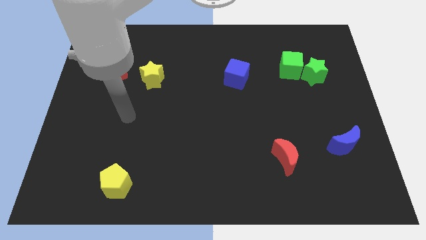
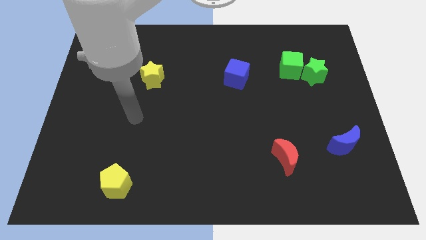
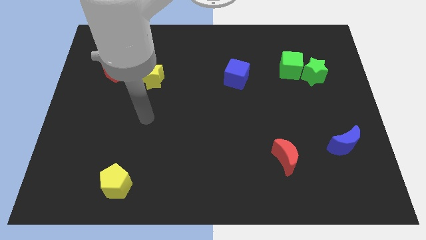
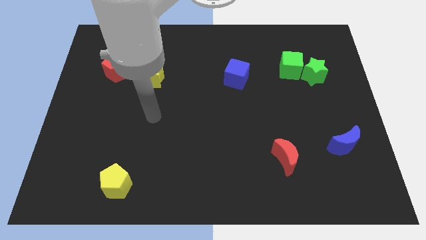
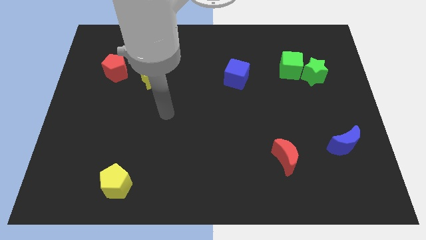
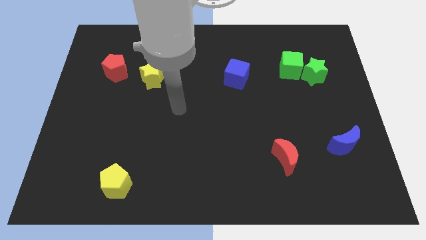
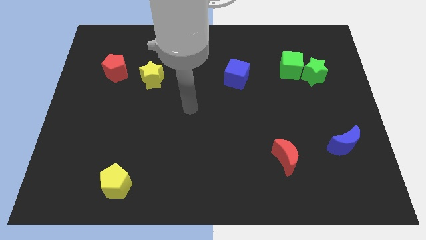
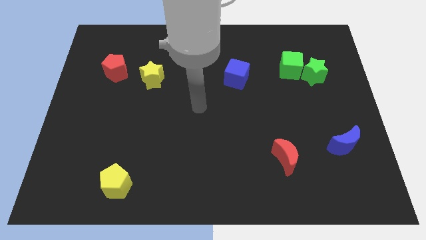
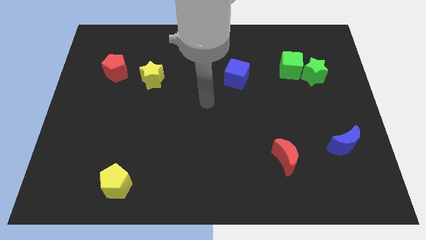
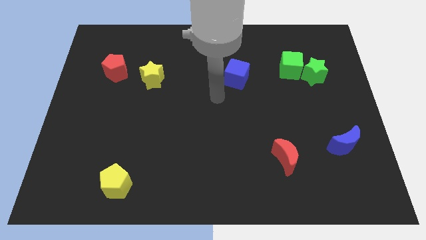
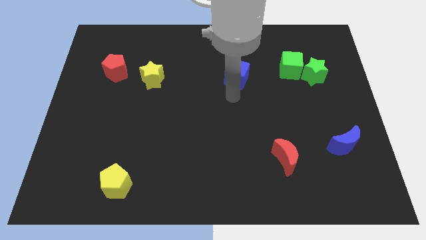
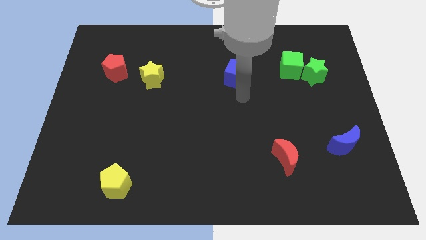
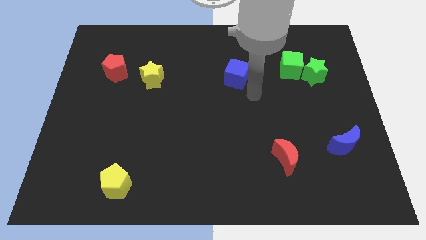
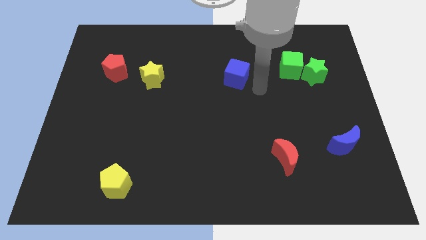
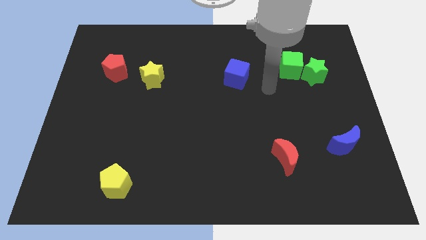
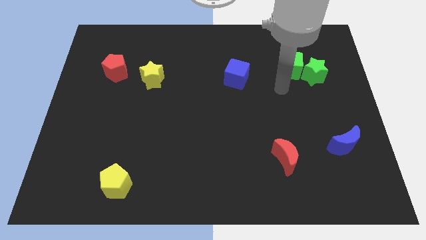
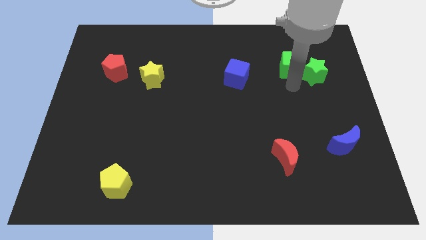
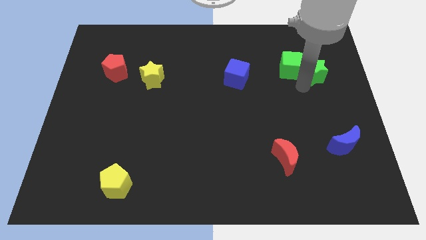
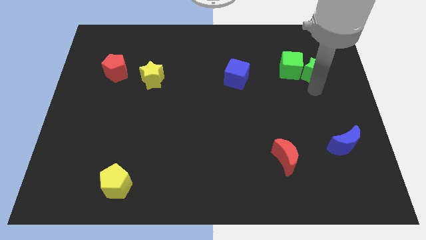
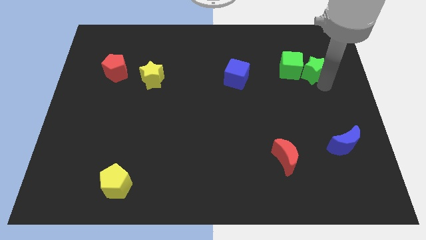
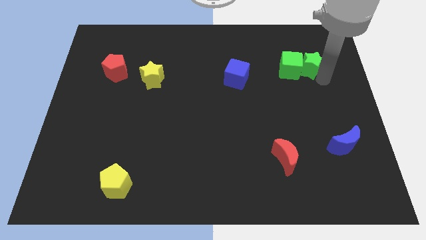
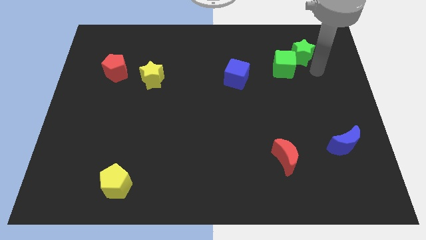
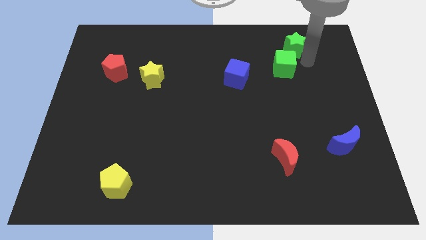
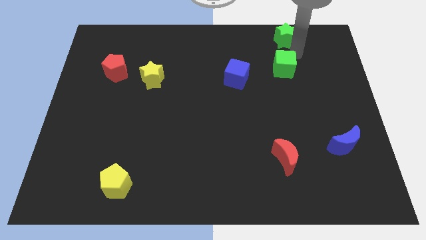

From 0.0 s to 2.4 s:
move the green cube away from the green star

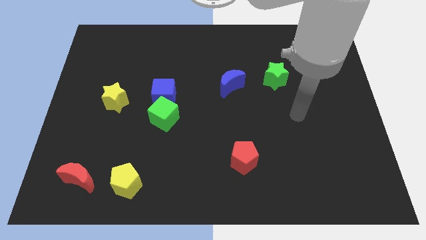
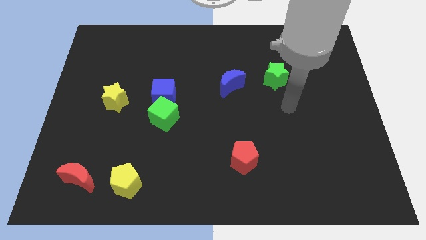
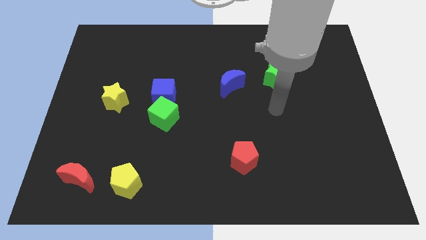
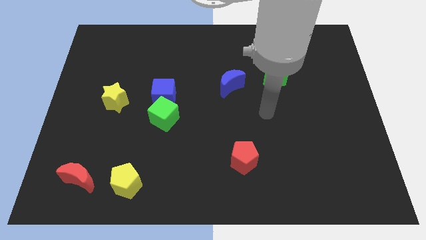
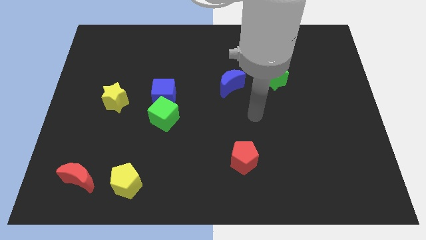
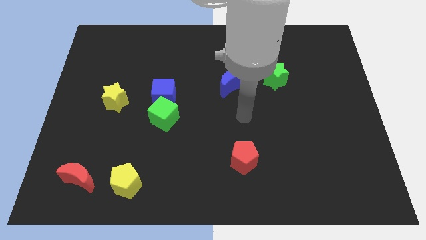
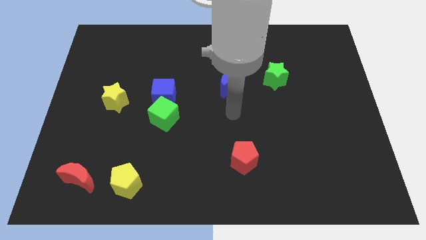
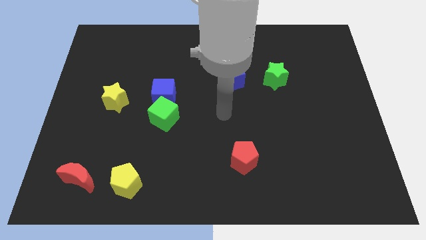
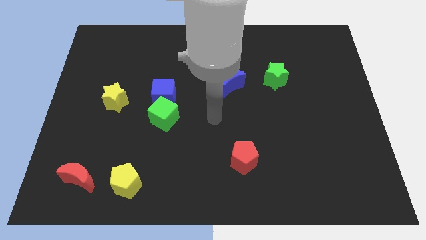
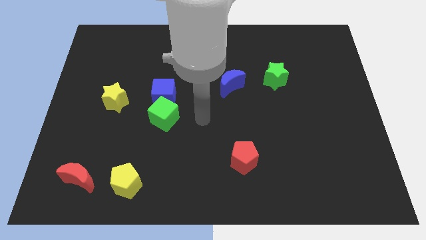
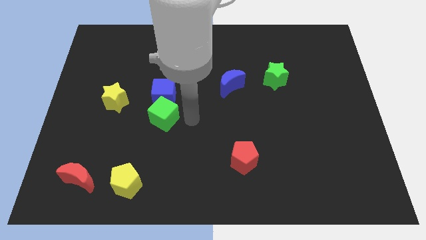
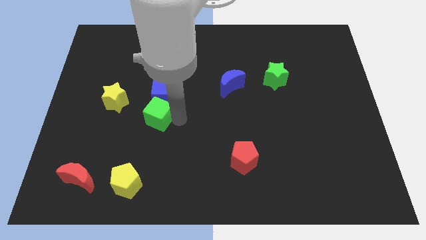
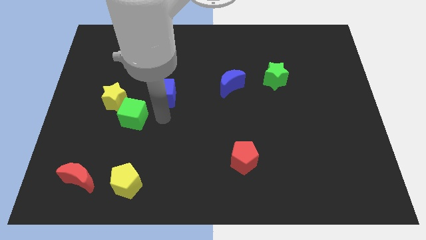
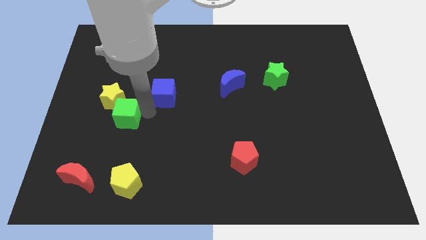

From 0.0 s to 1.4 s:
move the blue cube away from the green cube

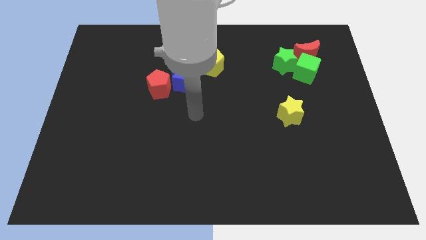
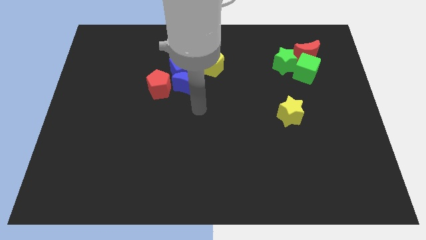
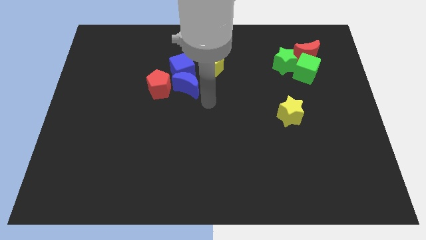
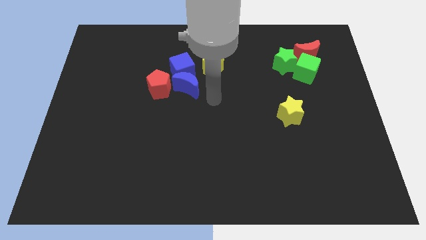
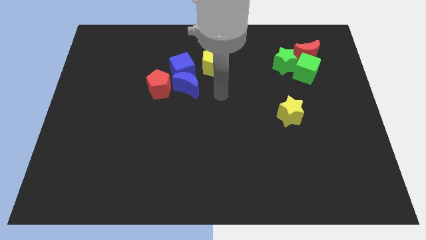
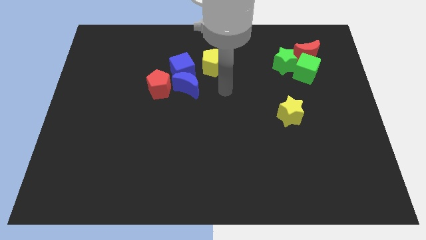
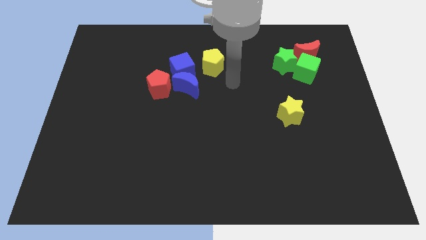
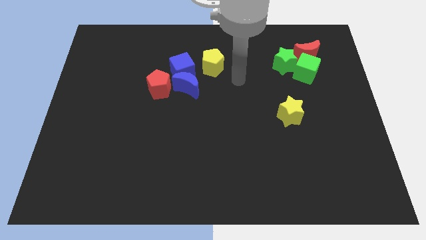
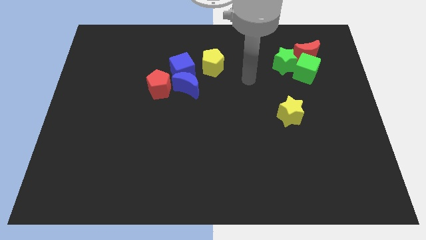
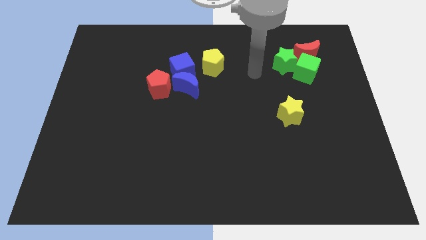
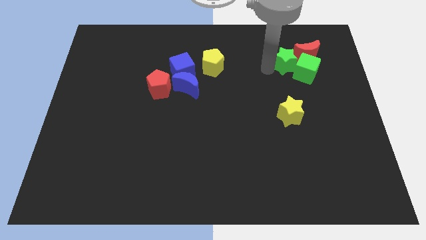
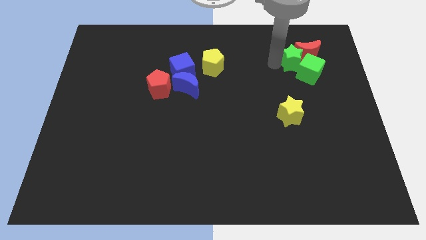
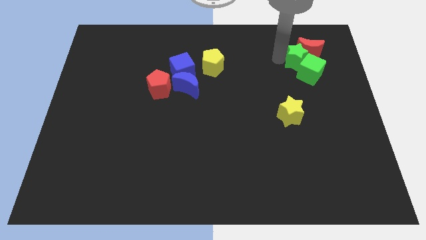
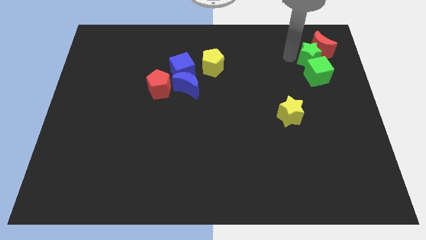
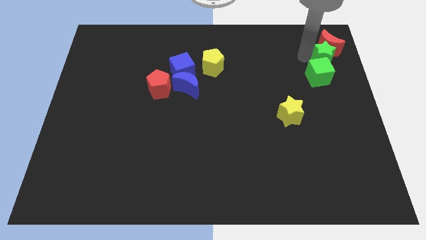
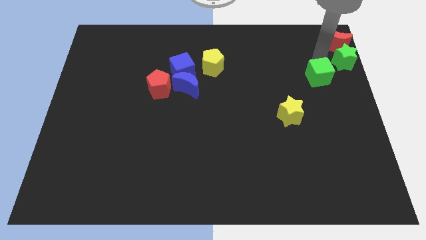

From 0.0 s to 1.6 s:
separate the green cube from the green star and red moon

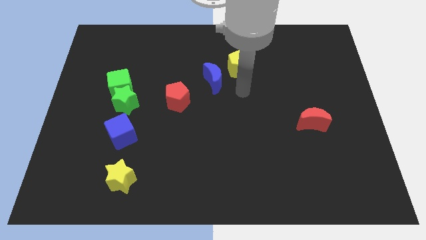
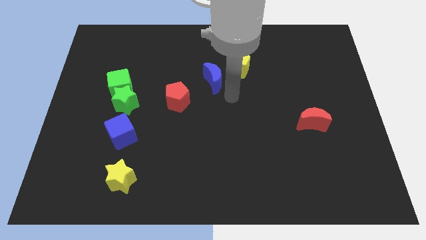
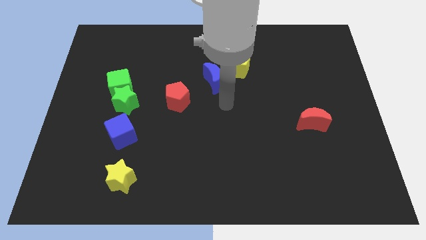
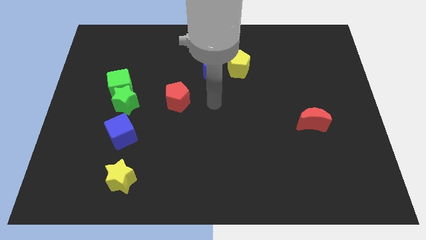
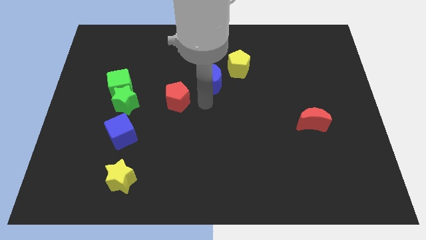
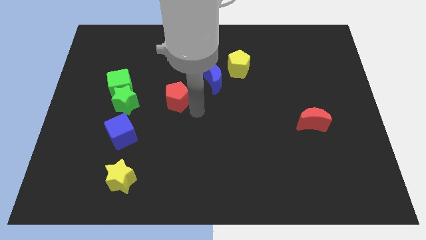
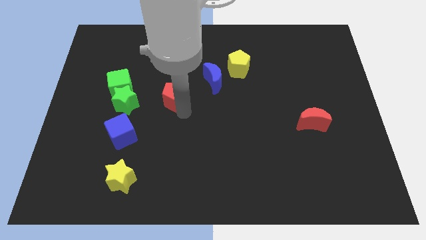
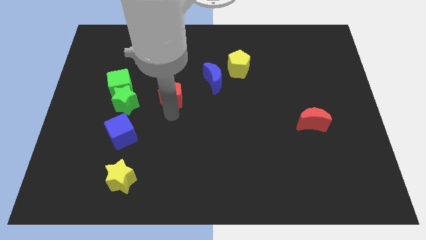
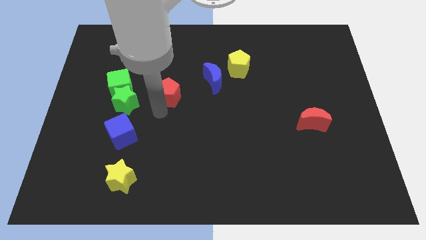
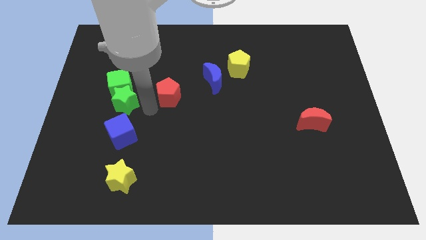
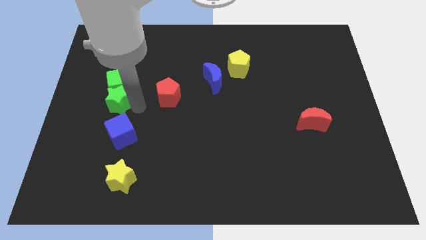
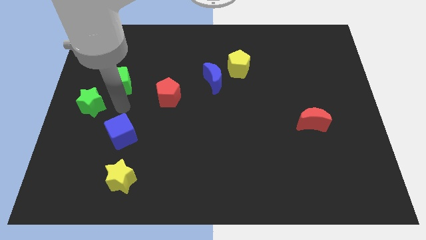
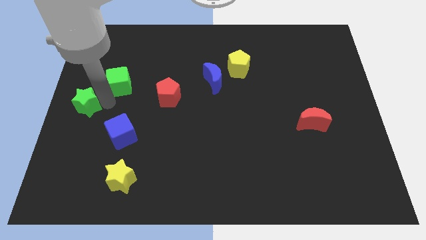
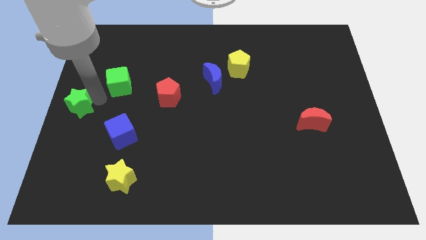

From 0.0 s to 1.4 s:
separate the green cube from the green star

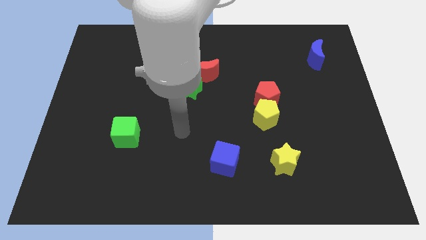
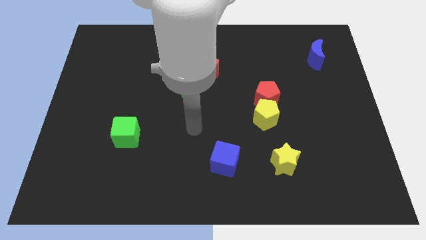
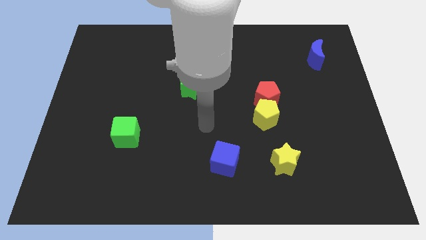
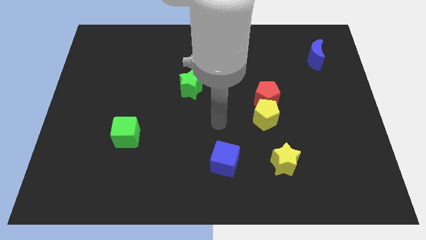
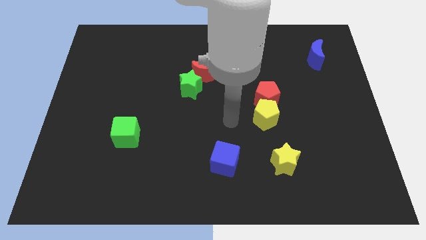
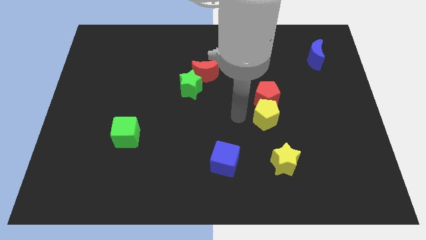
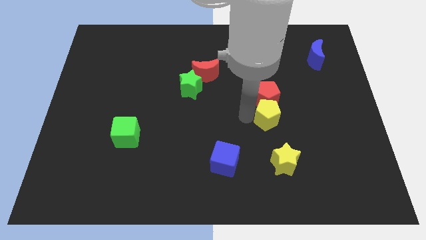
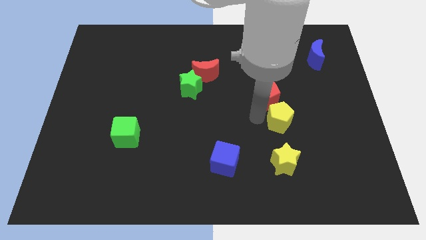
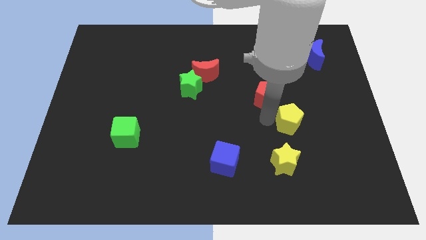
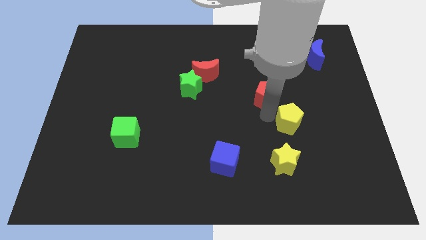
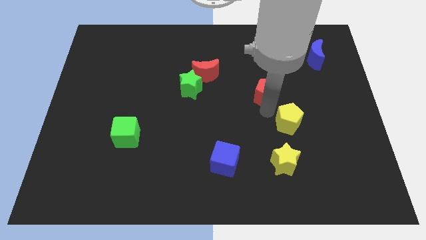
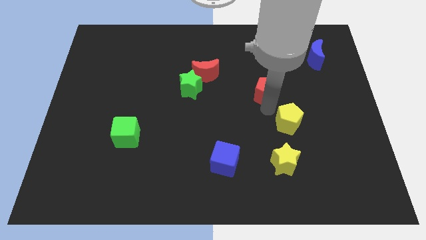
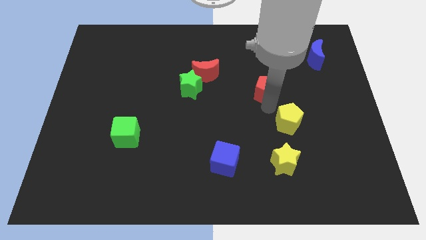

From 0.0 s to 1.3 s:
separate the red pentagon from the yellow pentagon

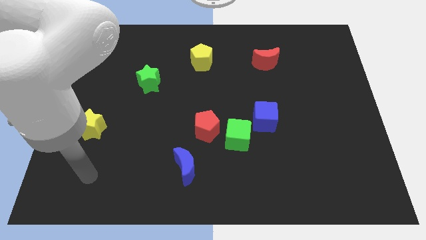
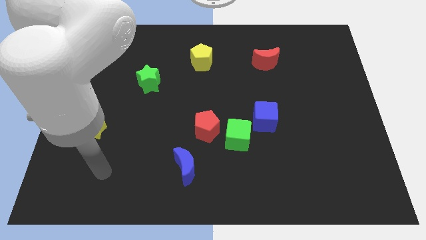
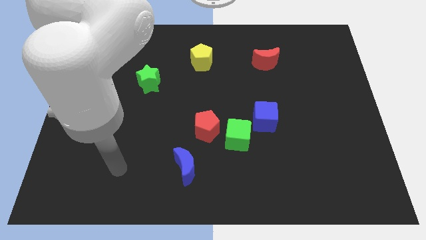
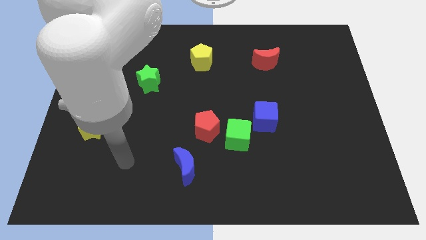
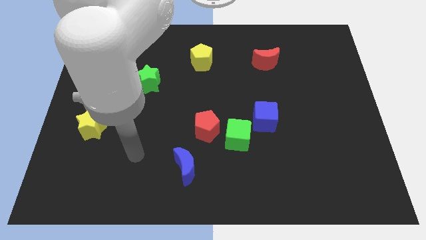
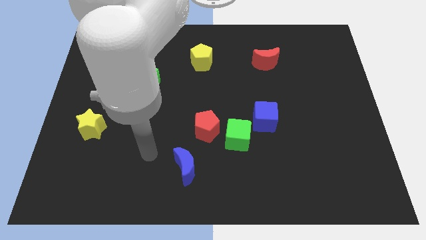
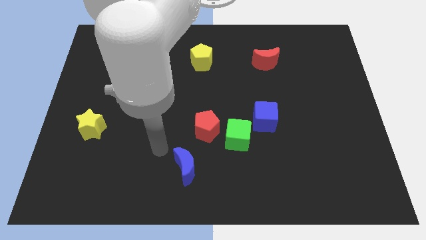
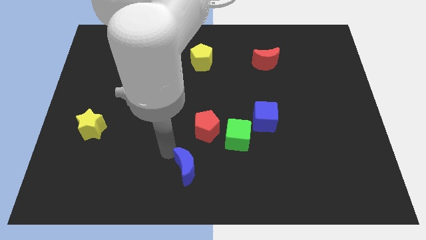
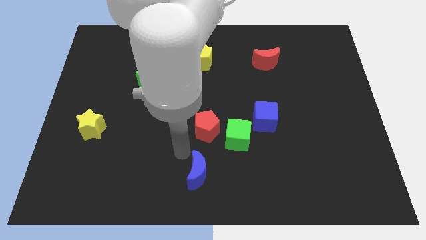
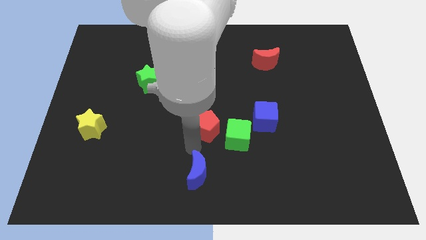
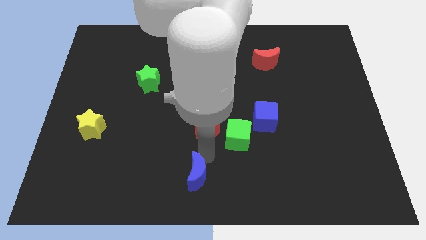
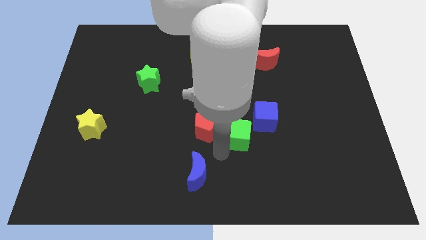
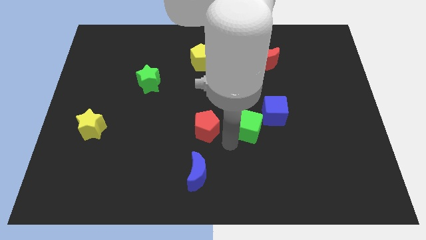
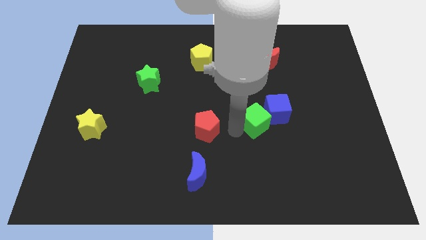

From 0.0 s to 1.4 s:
separate the red pentagon from the green cube

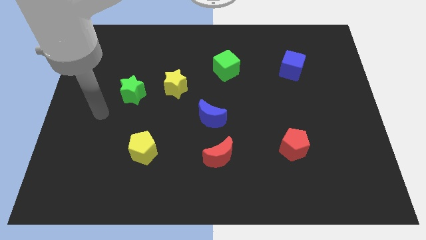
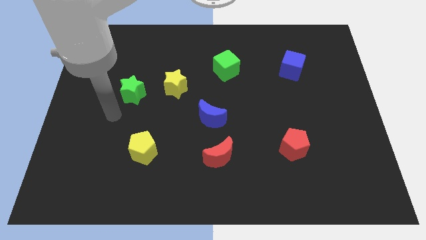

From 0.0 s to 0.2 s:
pull the red moon apart from the blue moon
